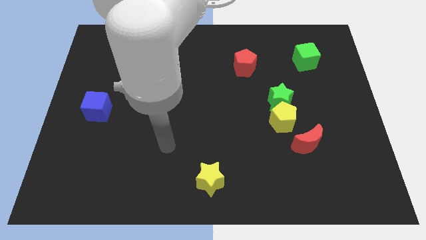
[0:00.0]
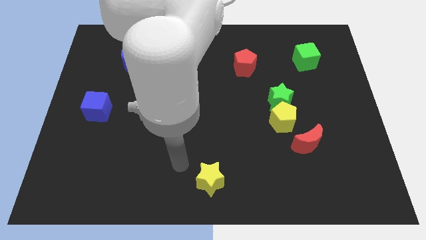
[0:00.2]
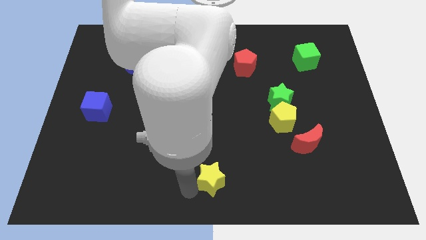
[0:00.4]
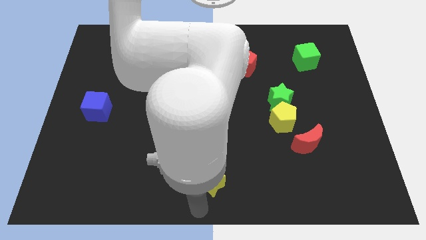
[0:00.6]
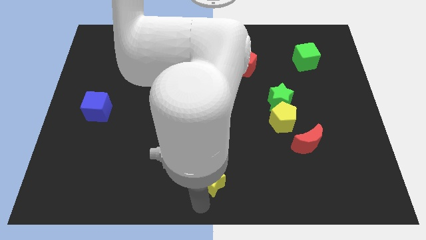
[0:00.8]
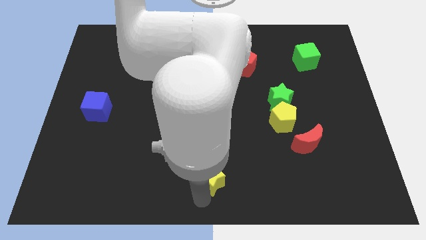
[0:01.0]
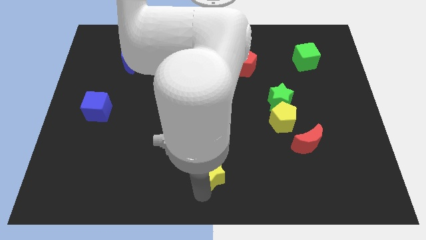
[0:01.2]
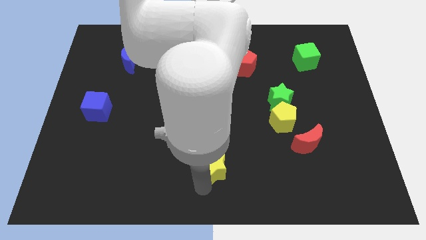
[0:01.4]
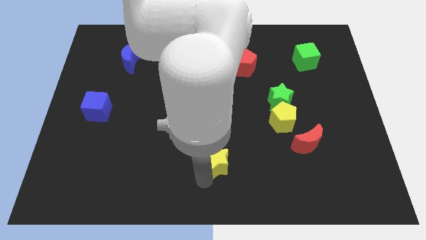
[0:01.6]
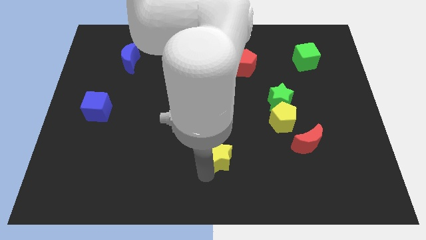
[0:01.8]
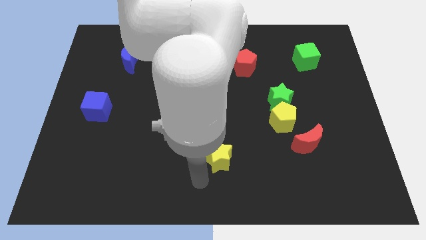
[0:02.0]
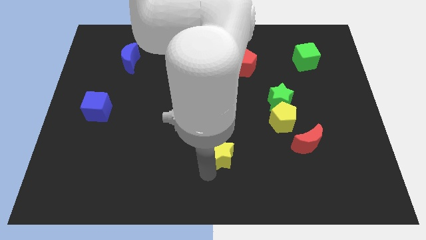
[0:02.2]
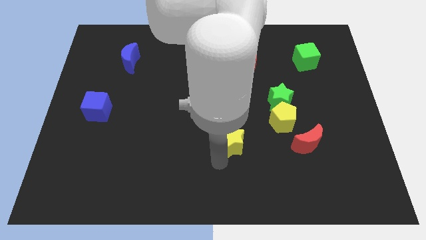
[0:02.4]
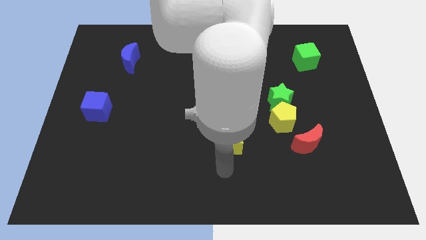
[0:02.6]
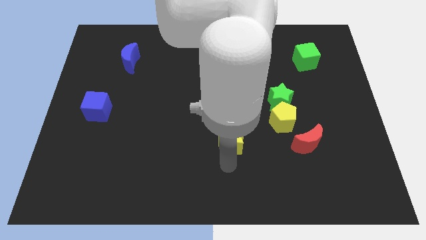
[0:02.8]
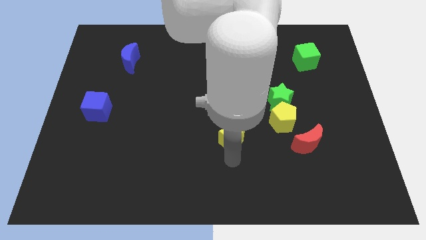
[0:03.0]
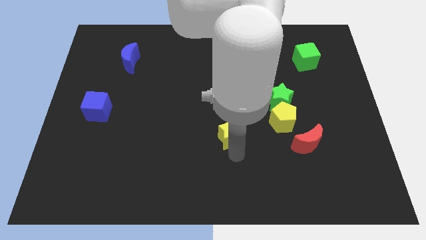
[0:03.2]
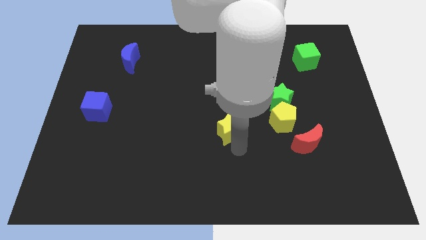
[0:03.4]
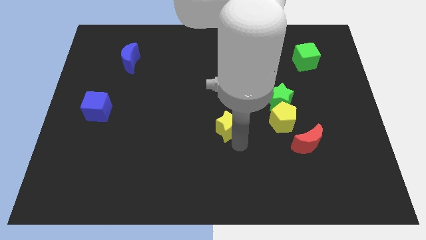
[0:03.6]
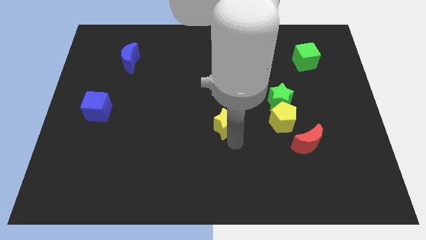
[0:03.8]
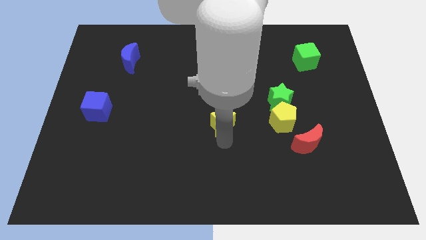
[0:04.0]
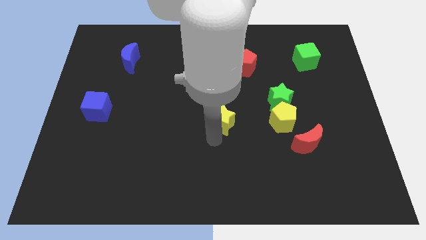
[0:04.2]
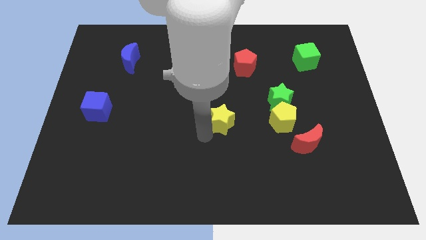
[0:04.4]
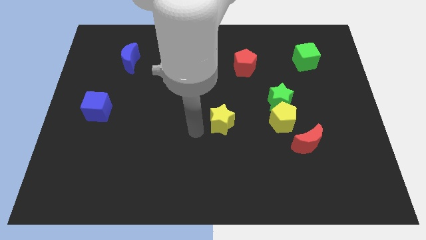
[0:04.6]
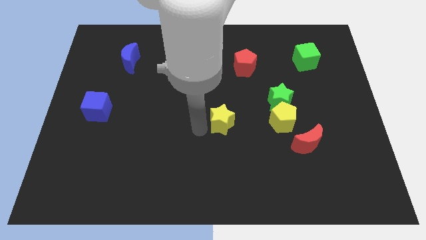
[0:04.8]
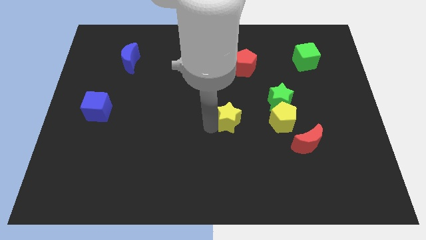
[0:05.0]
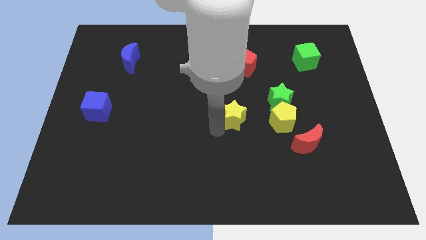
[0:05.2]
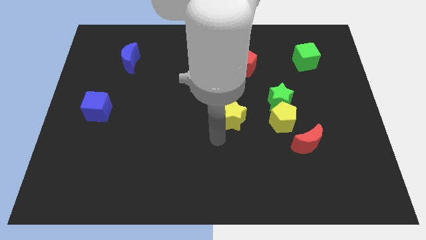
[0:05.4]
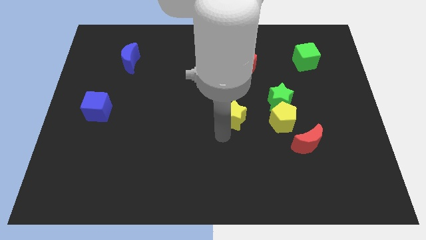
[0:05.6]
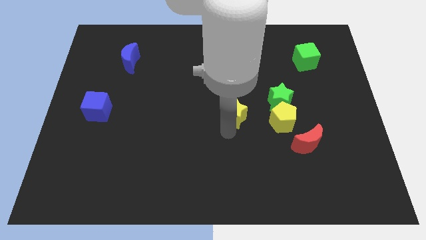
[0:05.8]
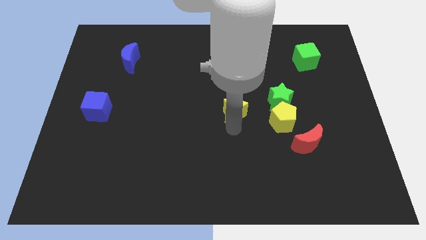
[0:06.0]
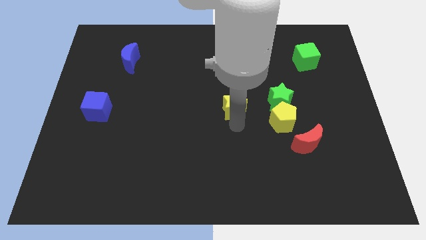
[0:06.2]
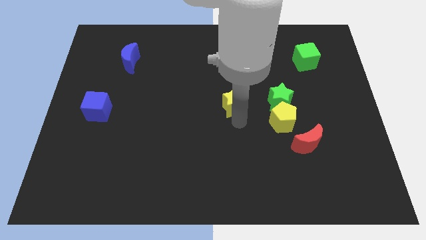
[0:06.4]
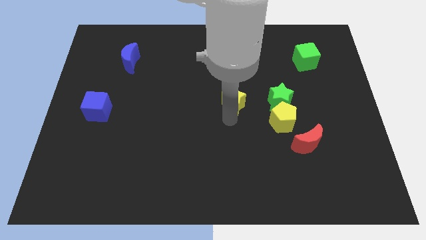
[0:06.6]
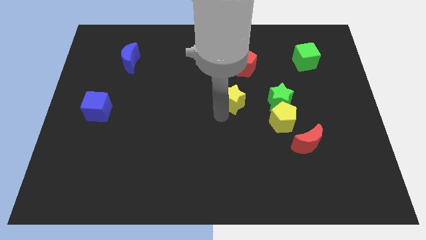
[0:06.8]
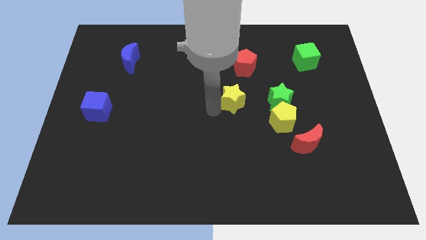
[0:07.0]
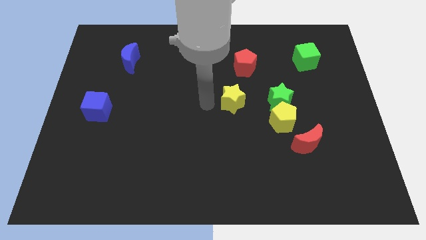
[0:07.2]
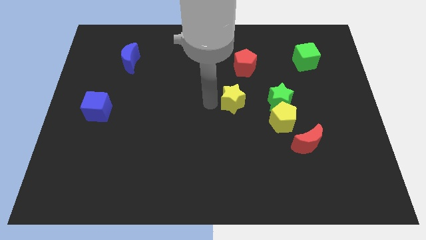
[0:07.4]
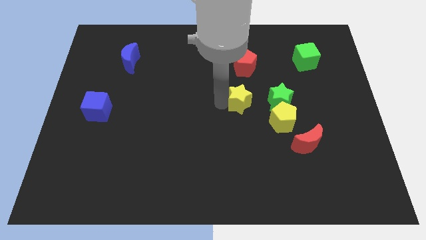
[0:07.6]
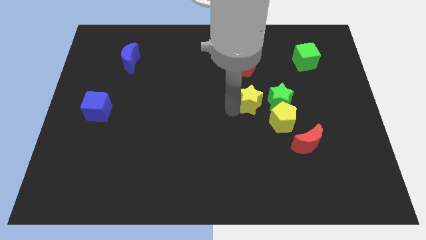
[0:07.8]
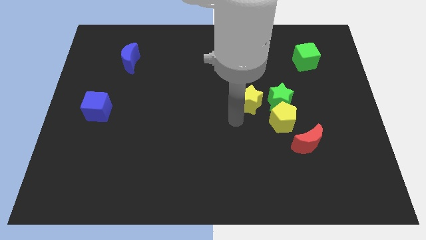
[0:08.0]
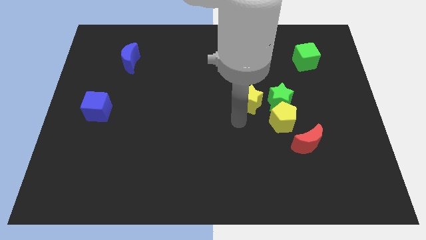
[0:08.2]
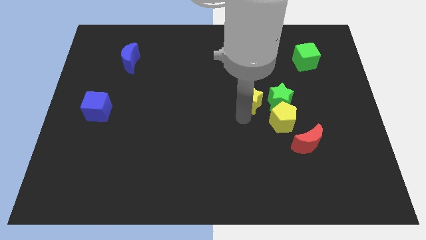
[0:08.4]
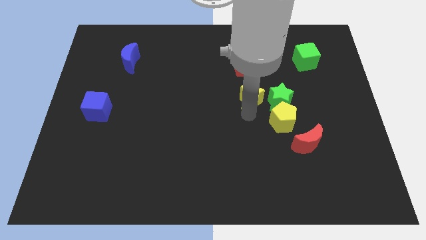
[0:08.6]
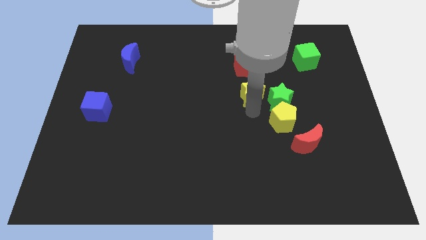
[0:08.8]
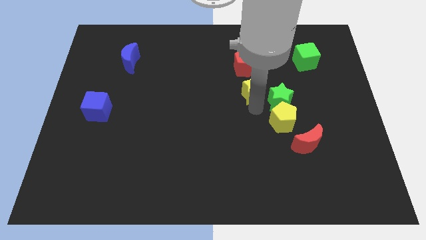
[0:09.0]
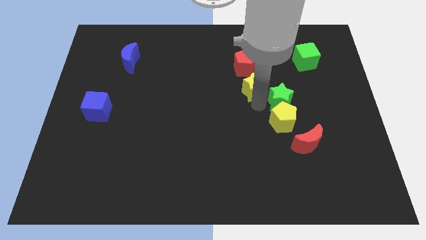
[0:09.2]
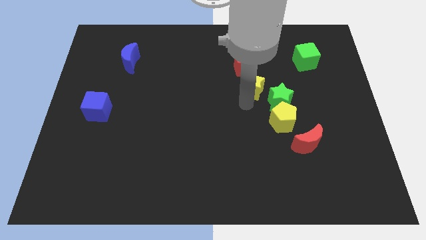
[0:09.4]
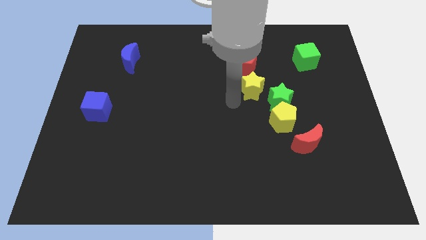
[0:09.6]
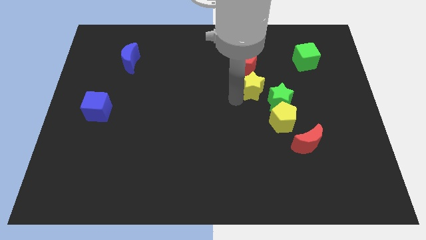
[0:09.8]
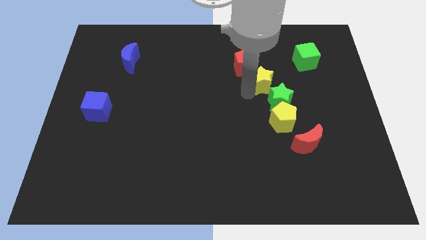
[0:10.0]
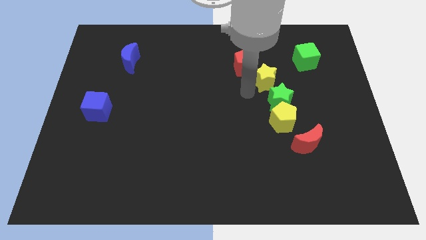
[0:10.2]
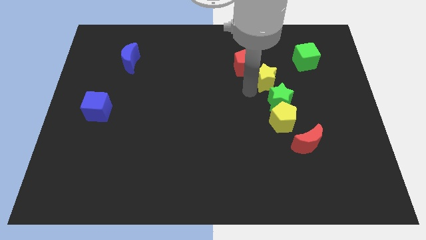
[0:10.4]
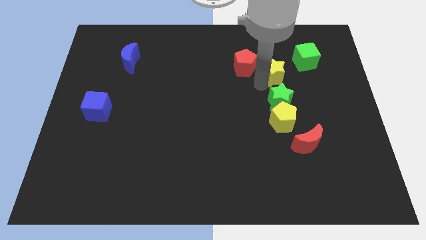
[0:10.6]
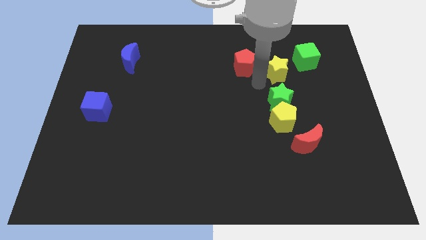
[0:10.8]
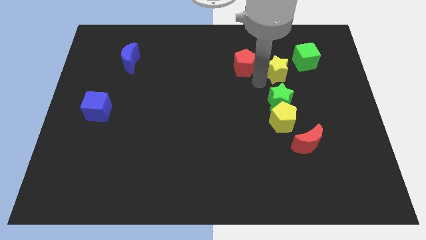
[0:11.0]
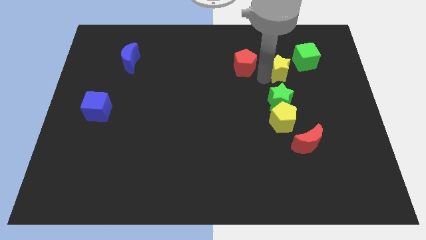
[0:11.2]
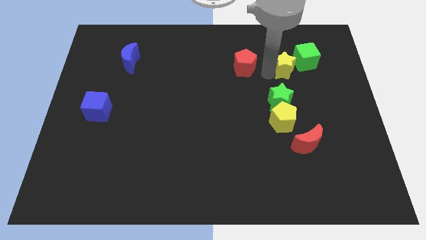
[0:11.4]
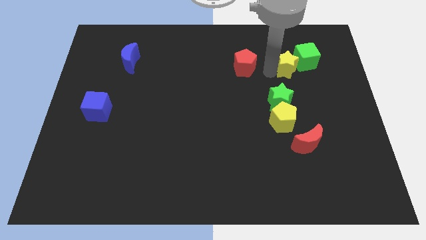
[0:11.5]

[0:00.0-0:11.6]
push the yellow star next to the green cube

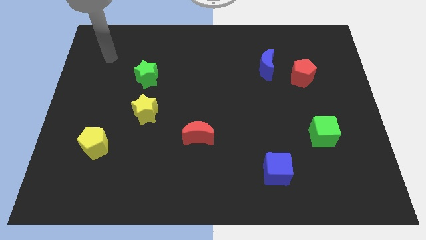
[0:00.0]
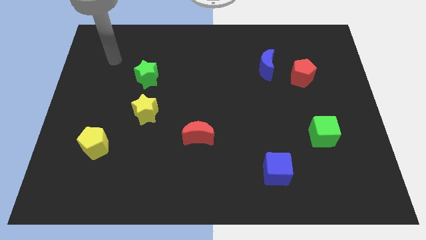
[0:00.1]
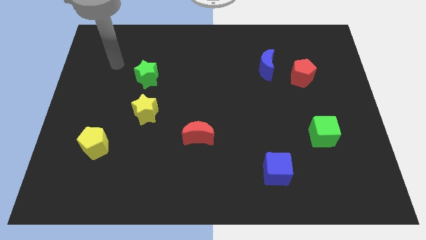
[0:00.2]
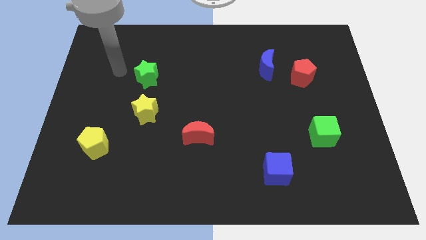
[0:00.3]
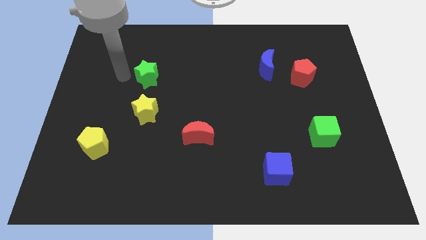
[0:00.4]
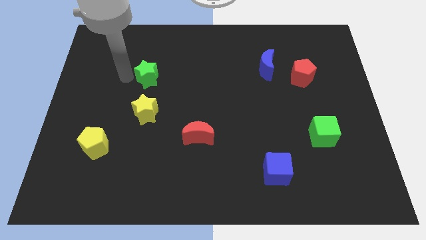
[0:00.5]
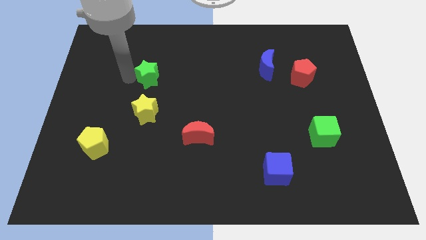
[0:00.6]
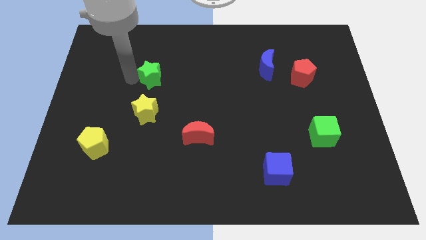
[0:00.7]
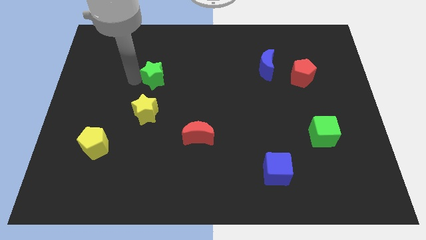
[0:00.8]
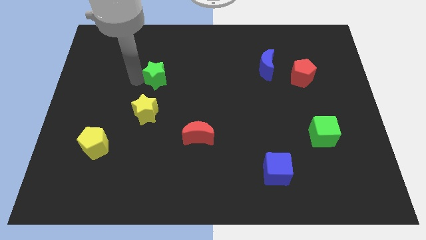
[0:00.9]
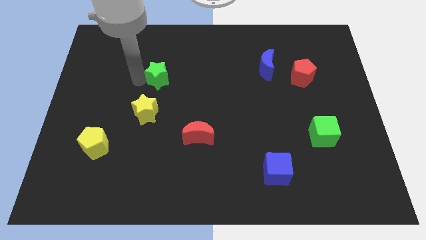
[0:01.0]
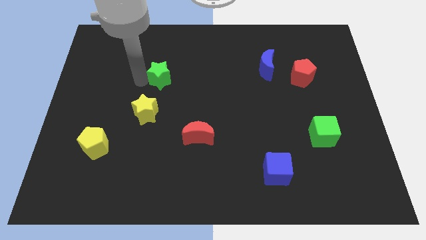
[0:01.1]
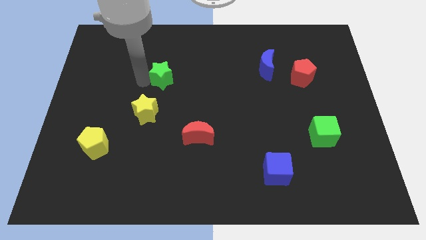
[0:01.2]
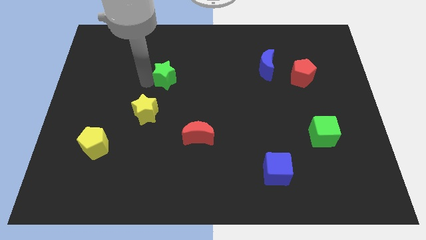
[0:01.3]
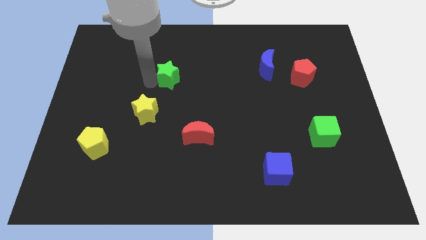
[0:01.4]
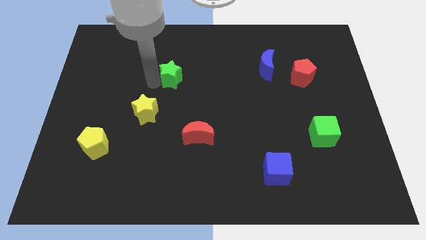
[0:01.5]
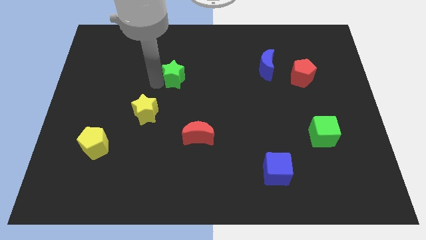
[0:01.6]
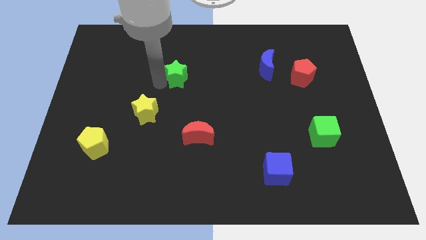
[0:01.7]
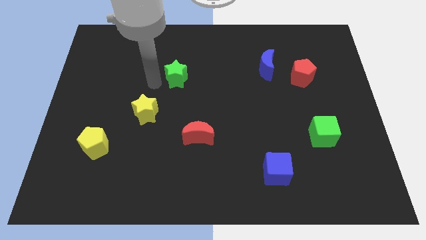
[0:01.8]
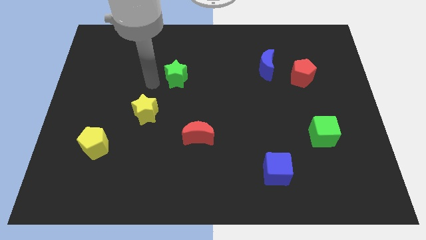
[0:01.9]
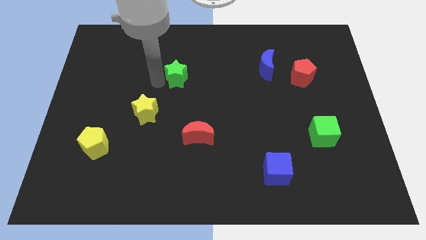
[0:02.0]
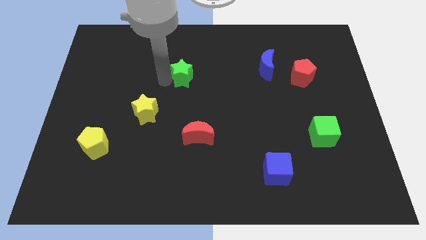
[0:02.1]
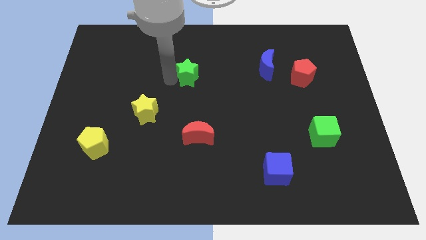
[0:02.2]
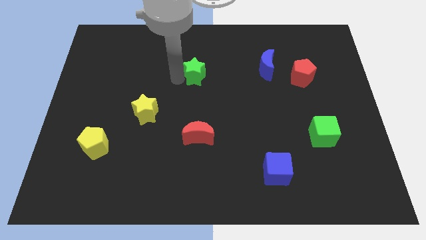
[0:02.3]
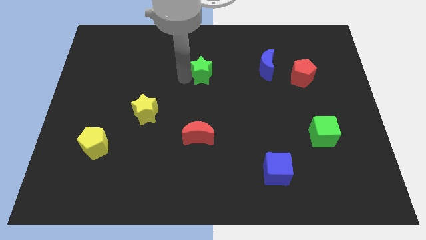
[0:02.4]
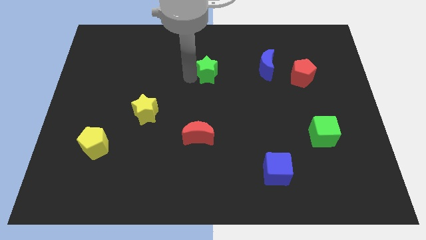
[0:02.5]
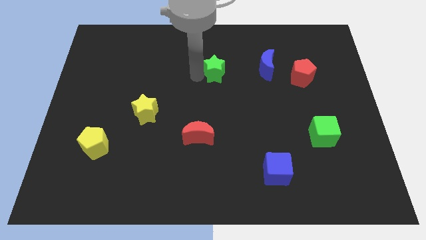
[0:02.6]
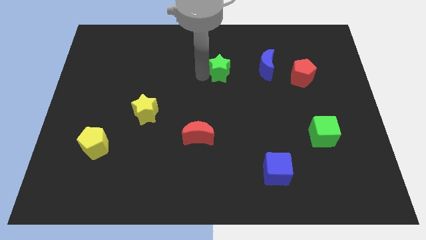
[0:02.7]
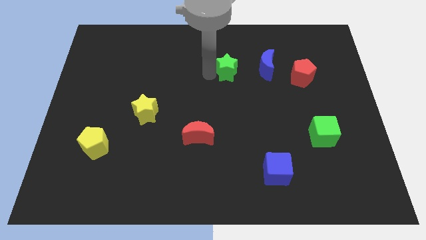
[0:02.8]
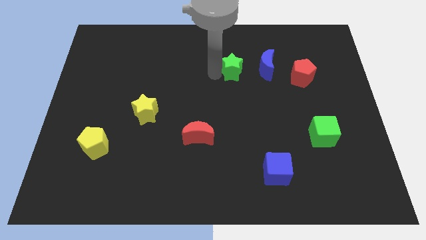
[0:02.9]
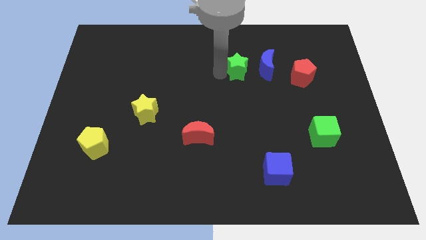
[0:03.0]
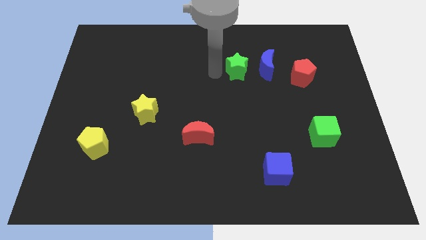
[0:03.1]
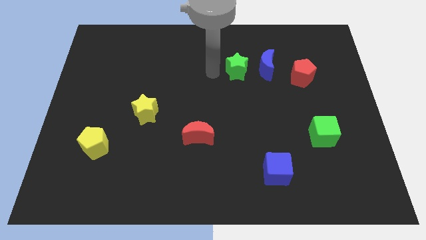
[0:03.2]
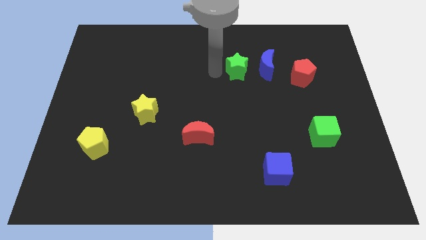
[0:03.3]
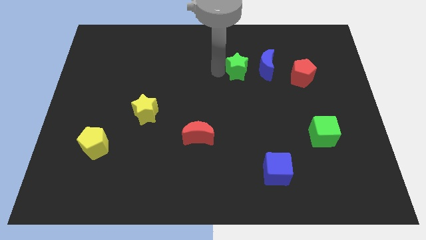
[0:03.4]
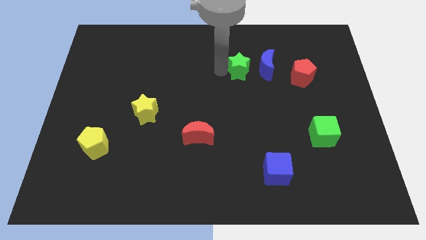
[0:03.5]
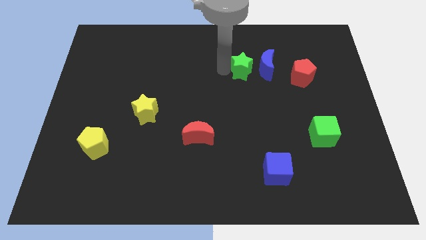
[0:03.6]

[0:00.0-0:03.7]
push the green star to the blue moon
